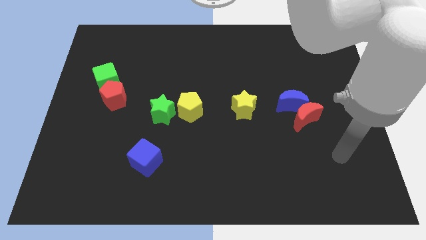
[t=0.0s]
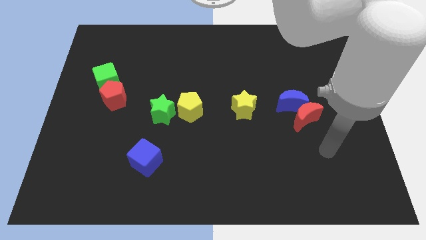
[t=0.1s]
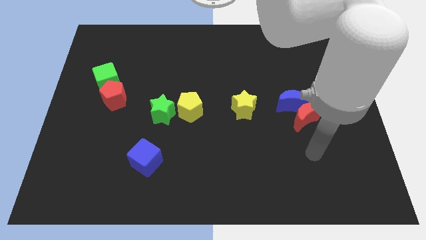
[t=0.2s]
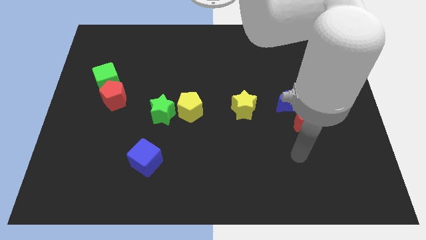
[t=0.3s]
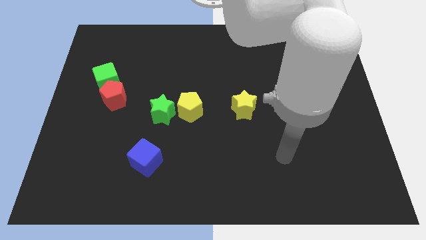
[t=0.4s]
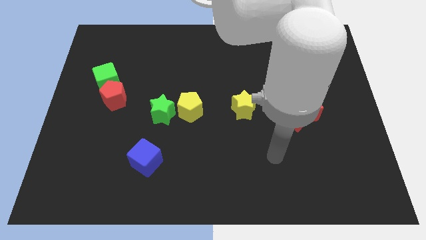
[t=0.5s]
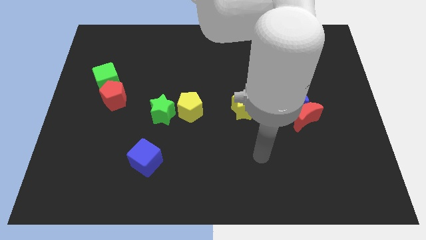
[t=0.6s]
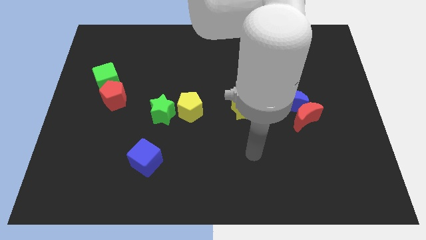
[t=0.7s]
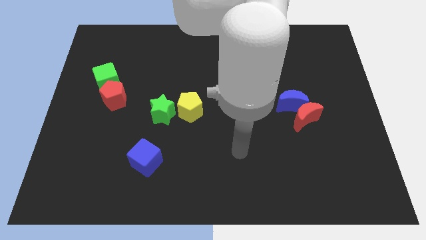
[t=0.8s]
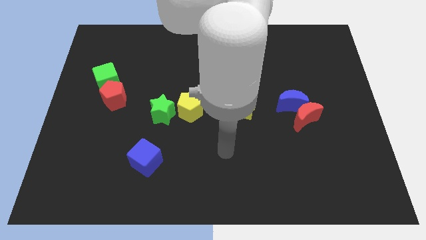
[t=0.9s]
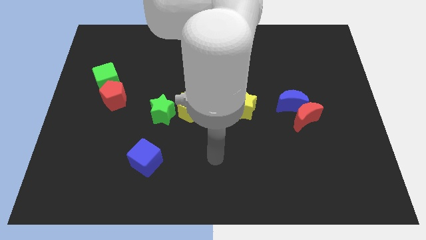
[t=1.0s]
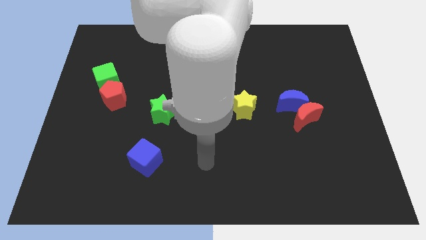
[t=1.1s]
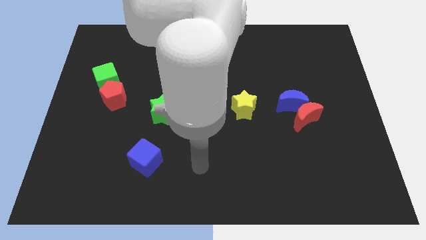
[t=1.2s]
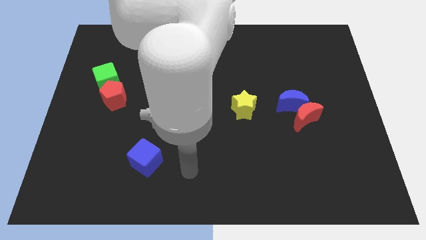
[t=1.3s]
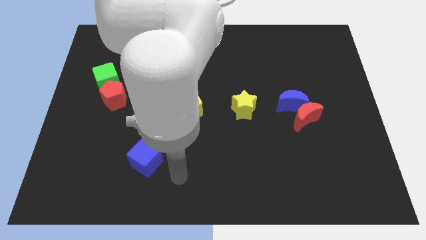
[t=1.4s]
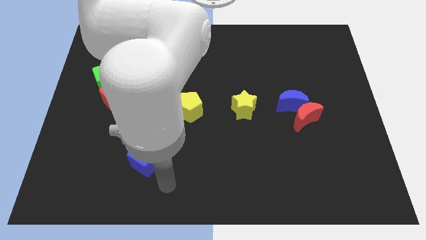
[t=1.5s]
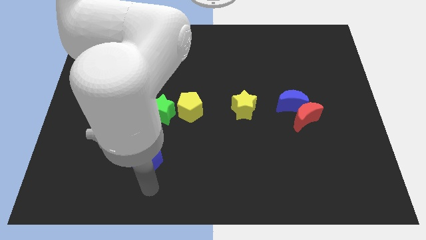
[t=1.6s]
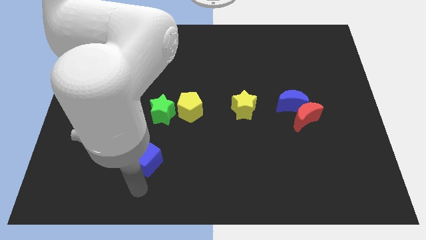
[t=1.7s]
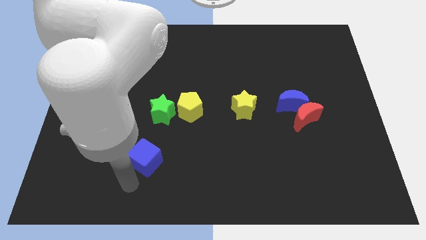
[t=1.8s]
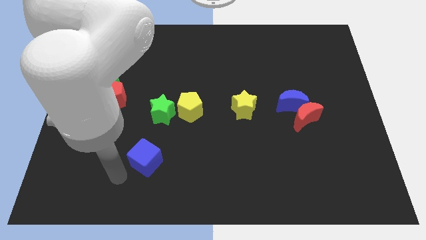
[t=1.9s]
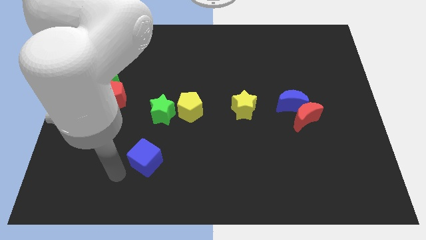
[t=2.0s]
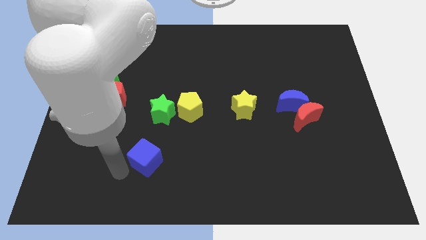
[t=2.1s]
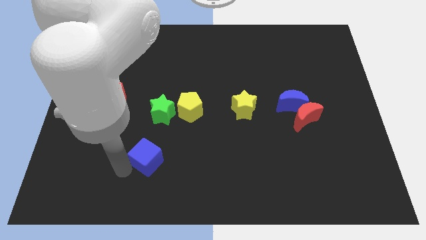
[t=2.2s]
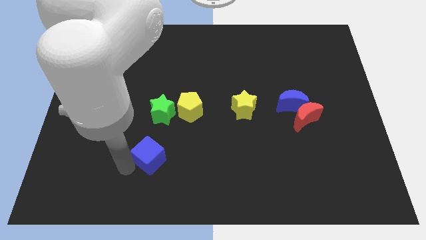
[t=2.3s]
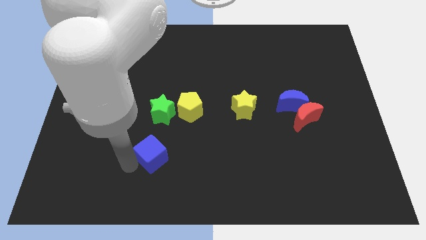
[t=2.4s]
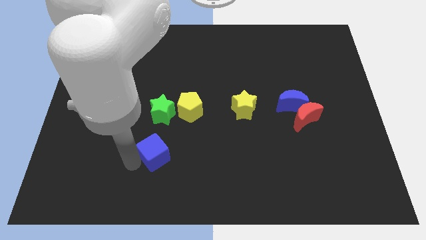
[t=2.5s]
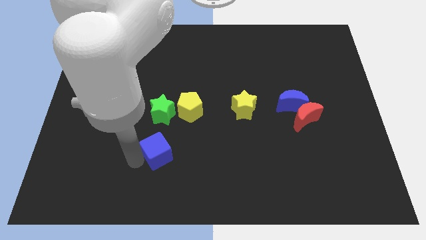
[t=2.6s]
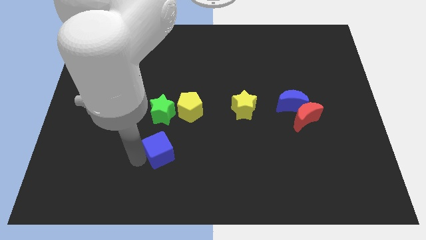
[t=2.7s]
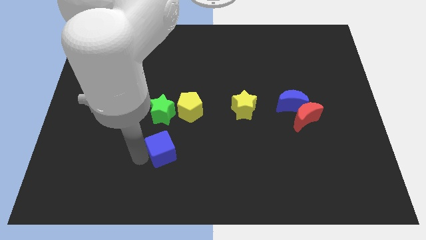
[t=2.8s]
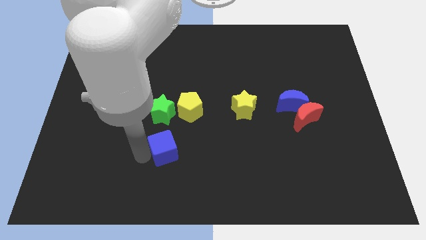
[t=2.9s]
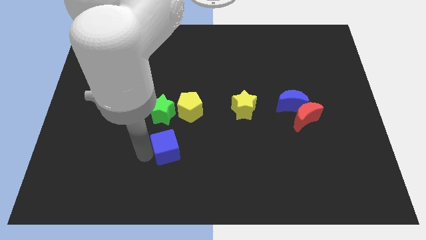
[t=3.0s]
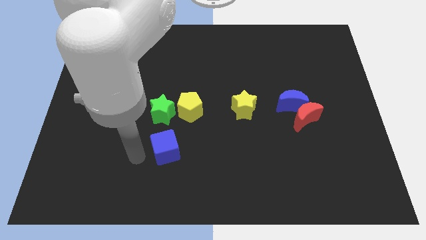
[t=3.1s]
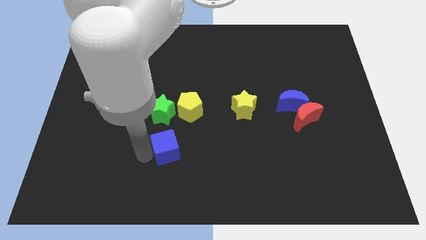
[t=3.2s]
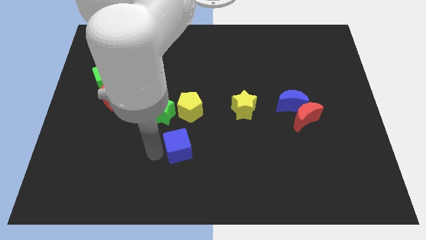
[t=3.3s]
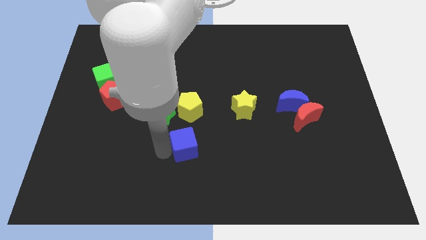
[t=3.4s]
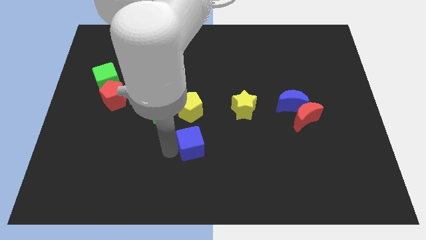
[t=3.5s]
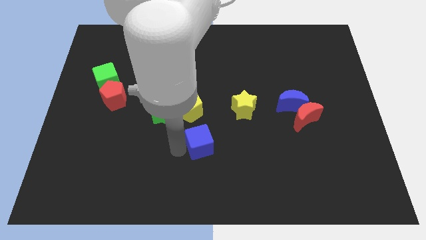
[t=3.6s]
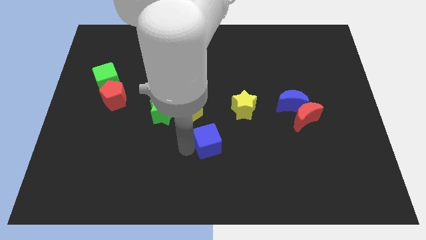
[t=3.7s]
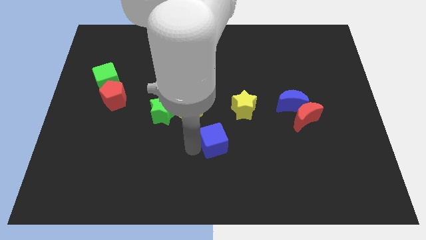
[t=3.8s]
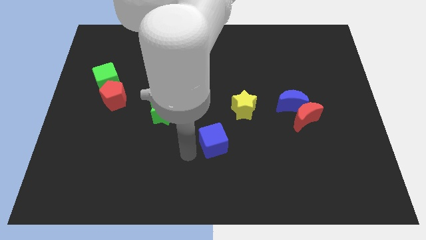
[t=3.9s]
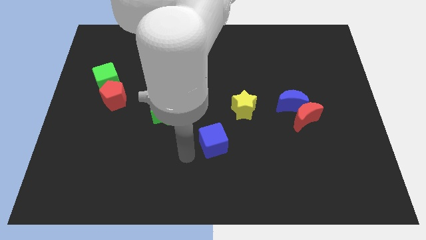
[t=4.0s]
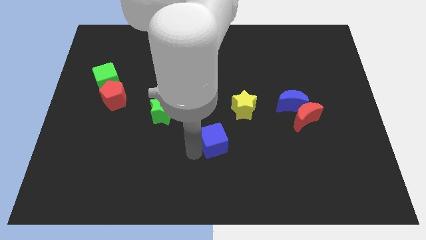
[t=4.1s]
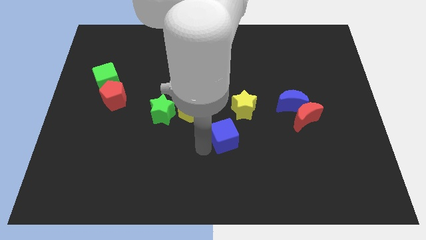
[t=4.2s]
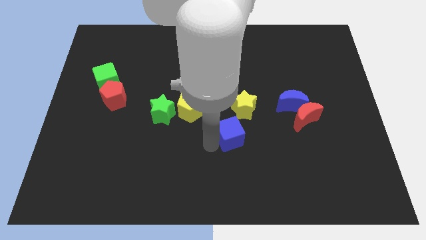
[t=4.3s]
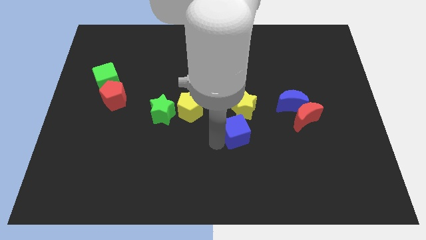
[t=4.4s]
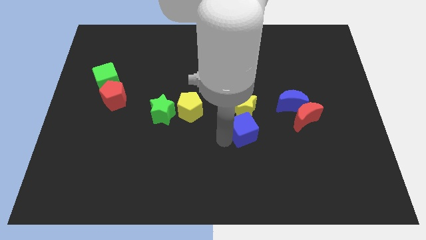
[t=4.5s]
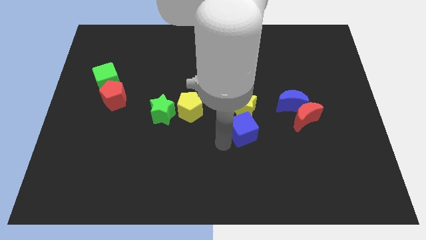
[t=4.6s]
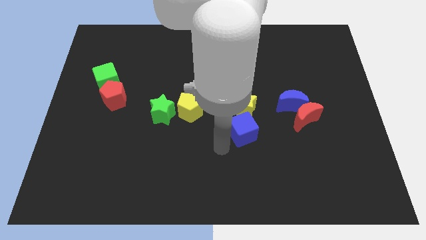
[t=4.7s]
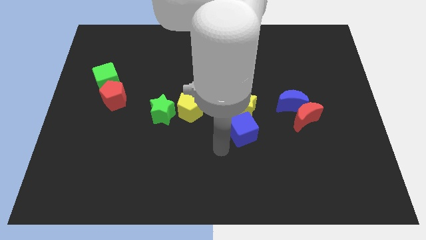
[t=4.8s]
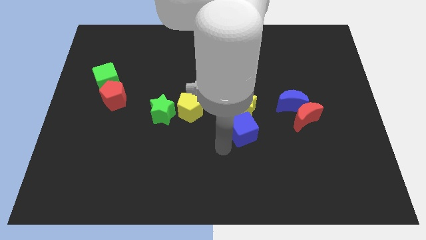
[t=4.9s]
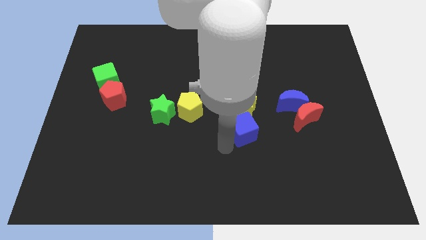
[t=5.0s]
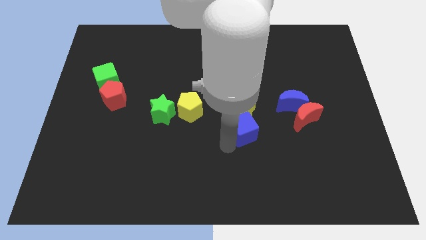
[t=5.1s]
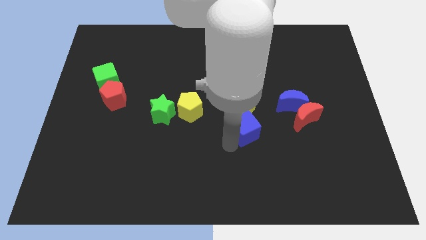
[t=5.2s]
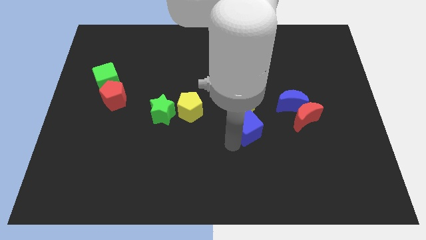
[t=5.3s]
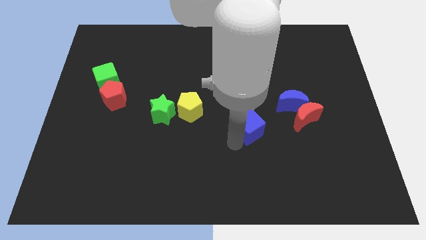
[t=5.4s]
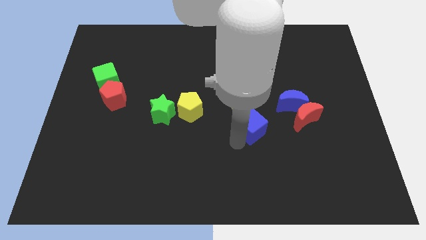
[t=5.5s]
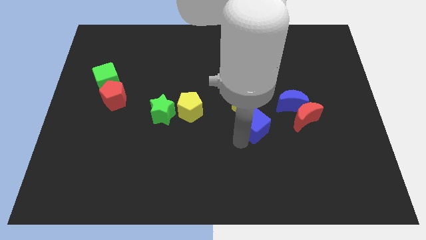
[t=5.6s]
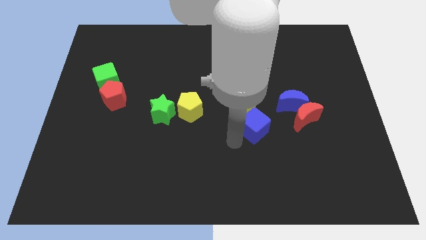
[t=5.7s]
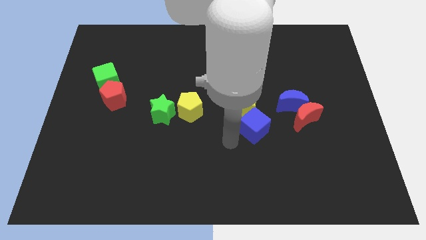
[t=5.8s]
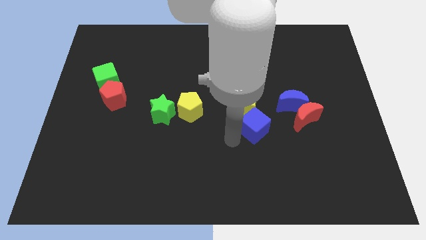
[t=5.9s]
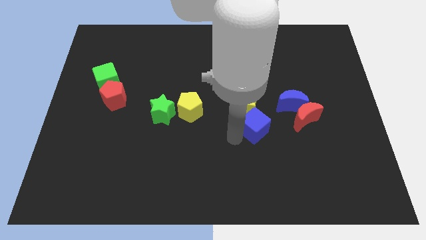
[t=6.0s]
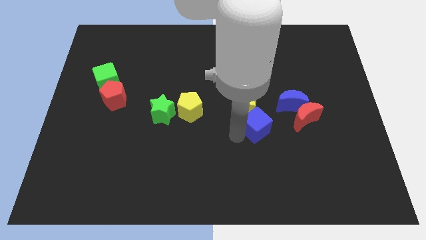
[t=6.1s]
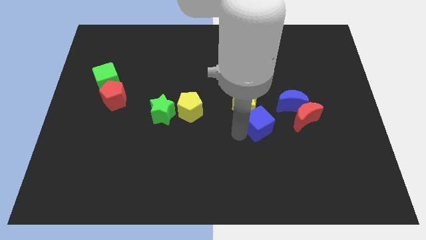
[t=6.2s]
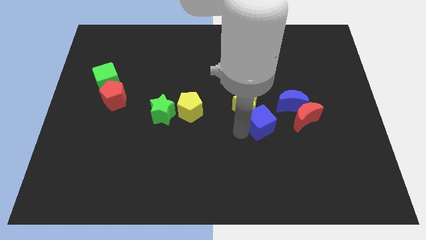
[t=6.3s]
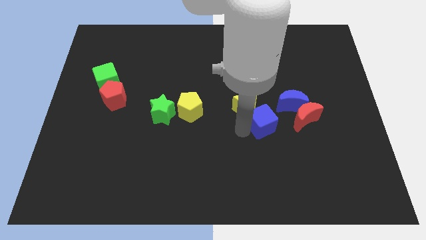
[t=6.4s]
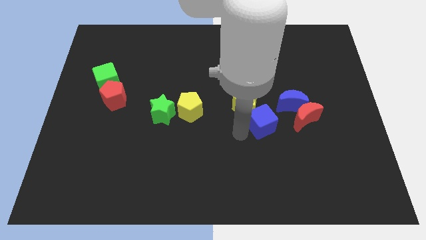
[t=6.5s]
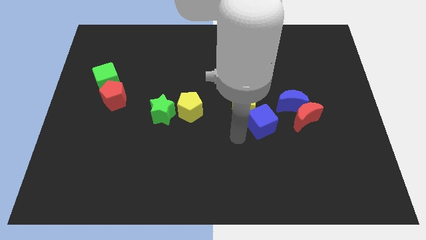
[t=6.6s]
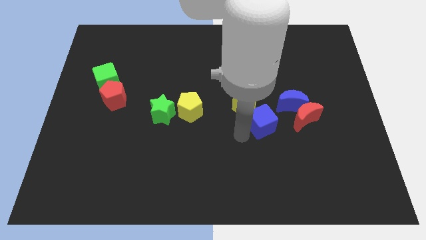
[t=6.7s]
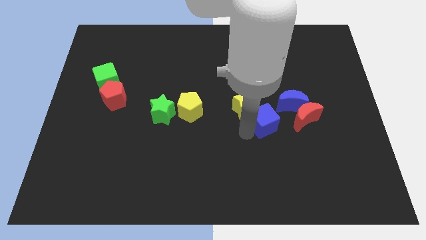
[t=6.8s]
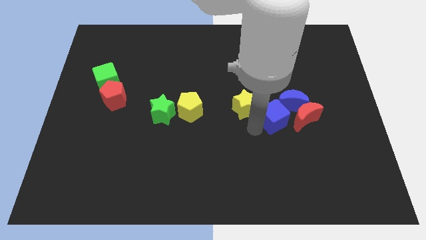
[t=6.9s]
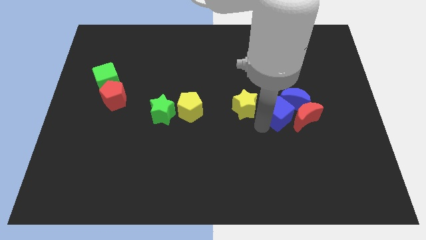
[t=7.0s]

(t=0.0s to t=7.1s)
slide the blue cube close to the blue moon
